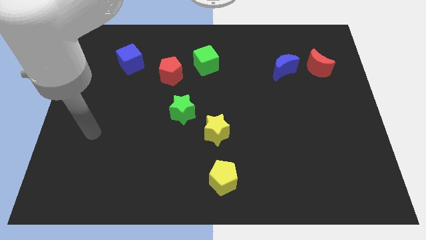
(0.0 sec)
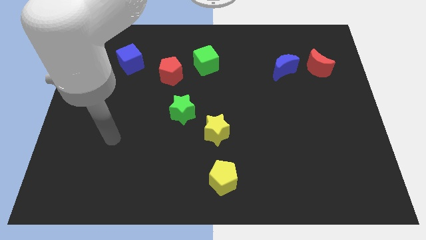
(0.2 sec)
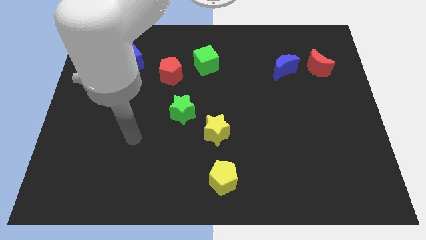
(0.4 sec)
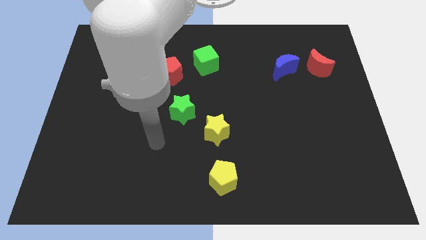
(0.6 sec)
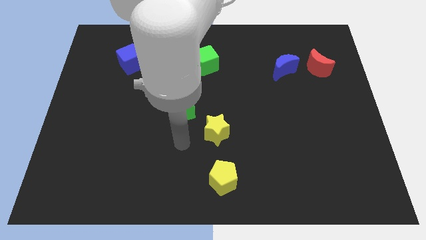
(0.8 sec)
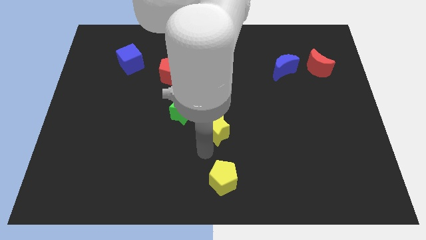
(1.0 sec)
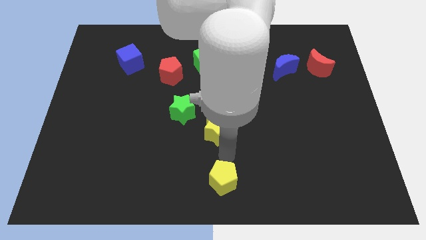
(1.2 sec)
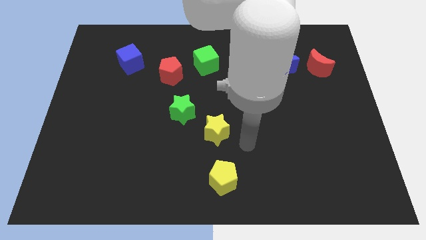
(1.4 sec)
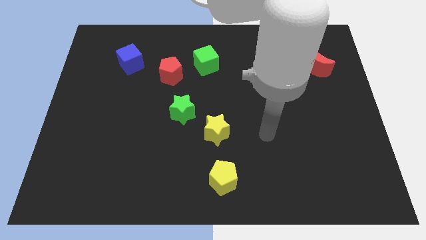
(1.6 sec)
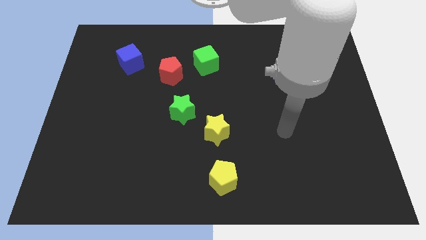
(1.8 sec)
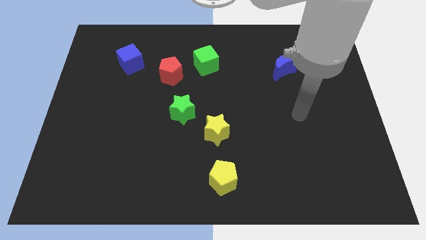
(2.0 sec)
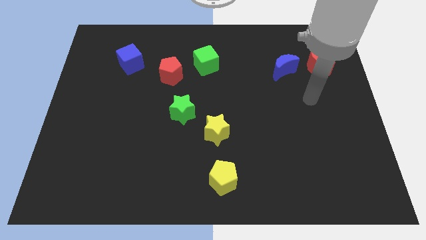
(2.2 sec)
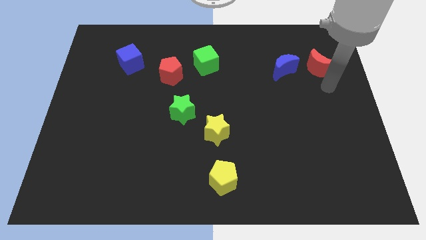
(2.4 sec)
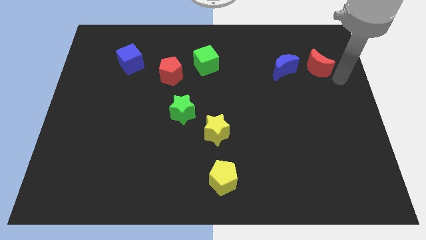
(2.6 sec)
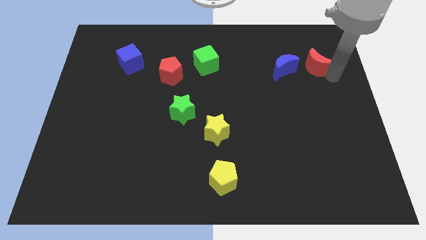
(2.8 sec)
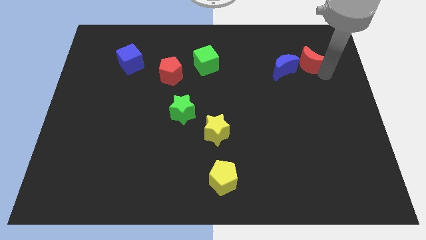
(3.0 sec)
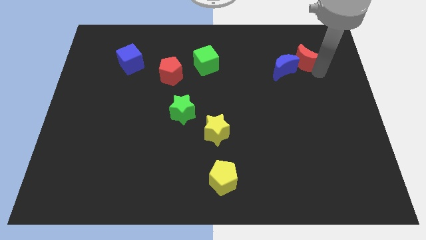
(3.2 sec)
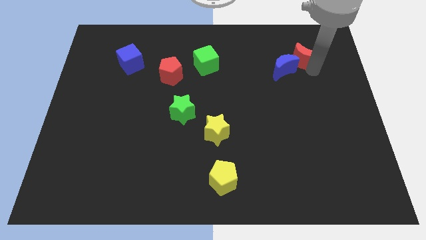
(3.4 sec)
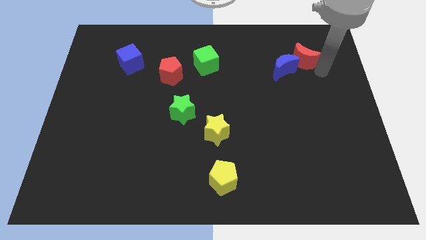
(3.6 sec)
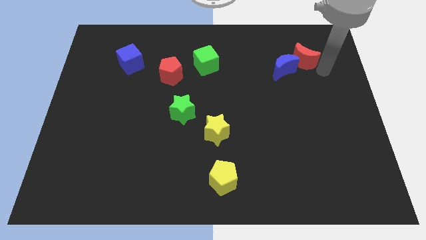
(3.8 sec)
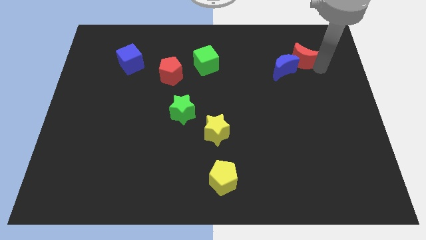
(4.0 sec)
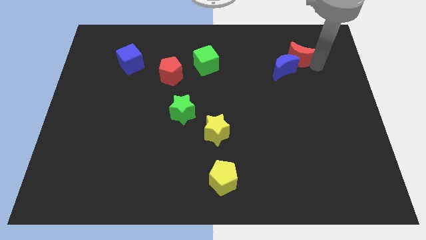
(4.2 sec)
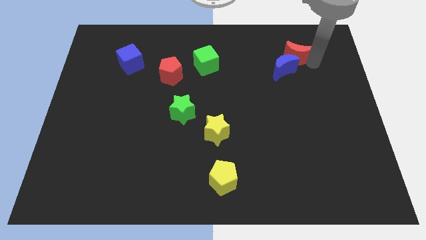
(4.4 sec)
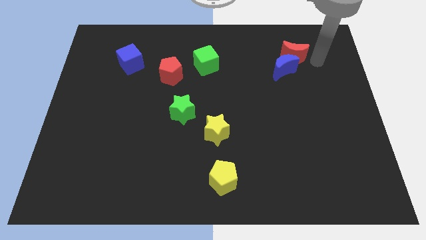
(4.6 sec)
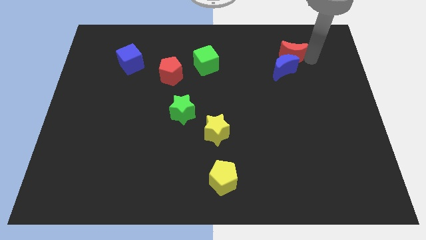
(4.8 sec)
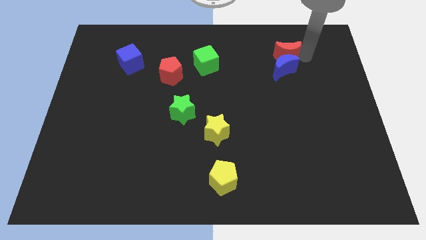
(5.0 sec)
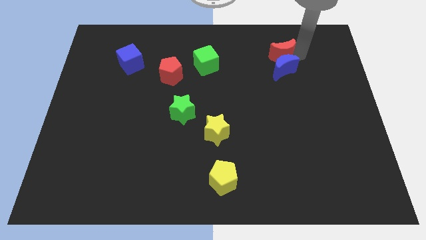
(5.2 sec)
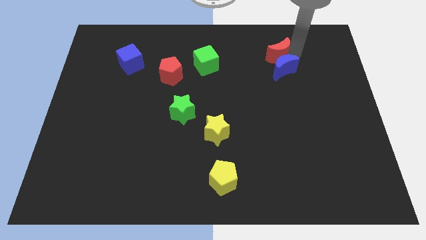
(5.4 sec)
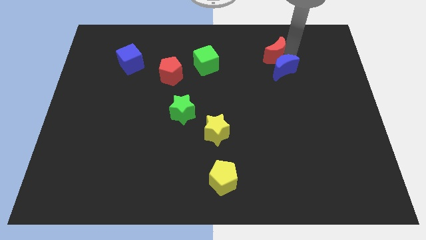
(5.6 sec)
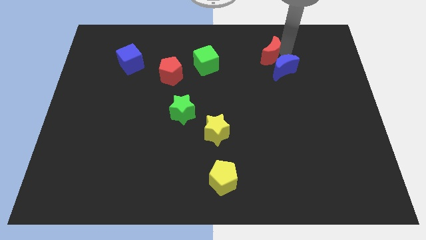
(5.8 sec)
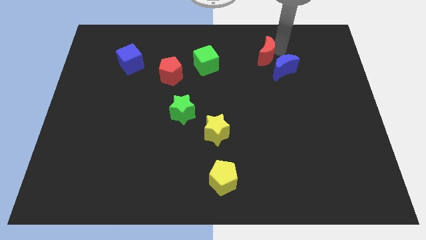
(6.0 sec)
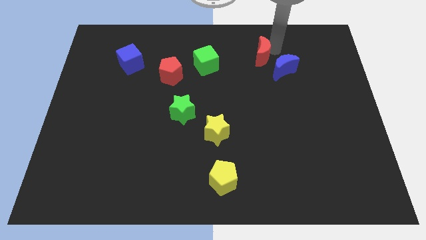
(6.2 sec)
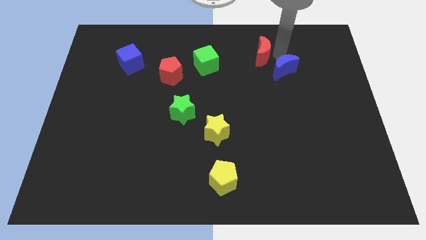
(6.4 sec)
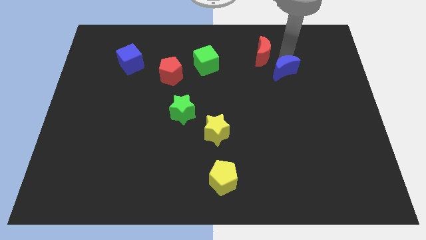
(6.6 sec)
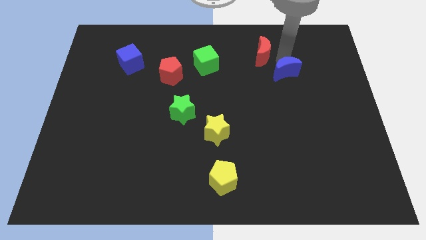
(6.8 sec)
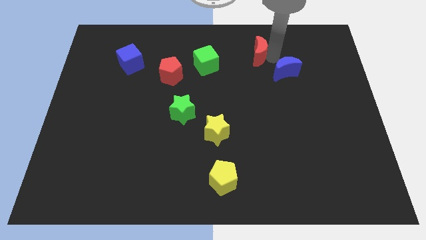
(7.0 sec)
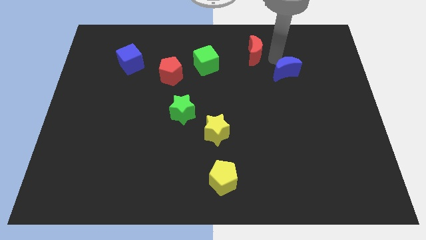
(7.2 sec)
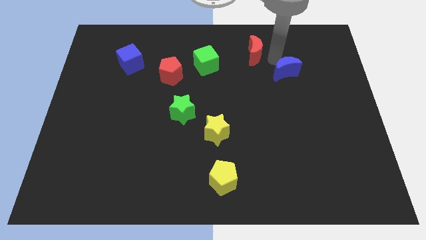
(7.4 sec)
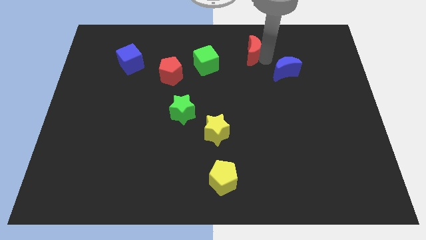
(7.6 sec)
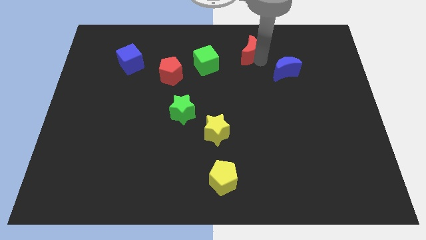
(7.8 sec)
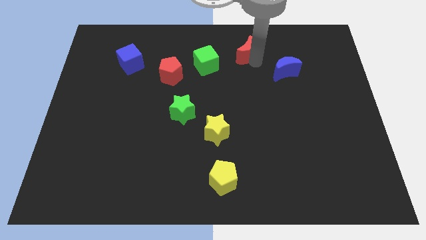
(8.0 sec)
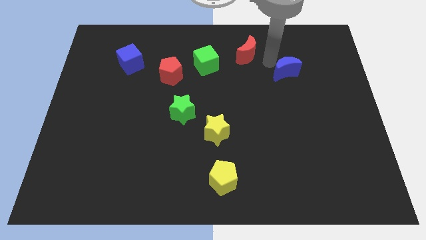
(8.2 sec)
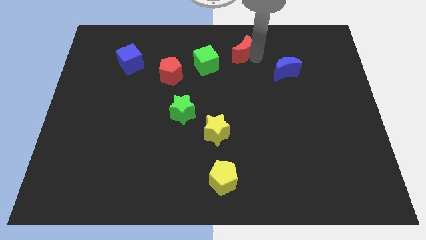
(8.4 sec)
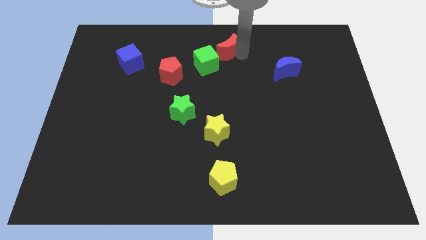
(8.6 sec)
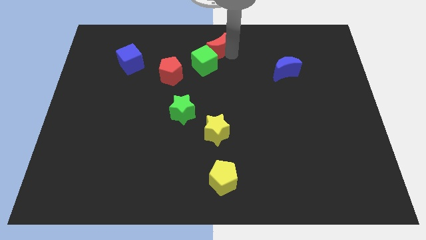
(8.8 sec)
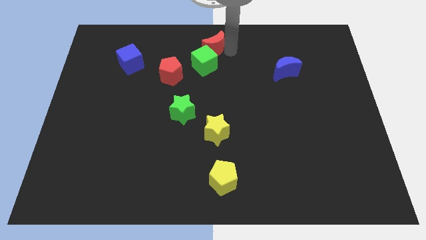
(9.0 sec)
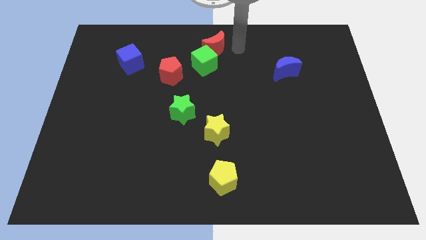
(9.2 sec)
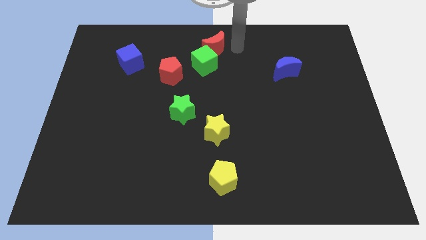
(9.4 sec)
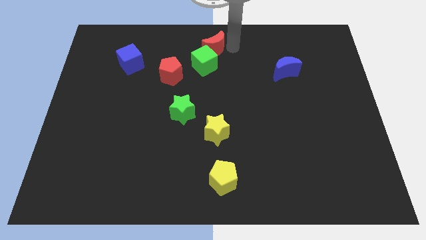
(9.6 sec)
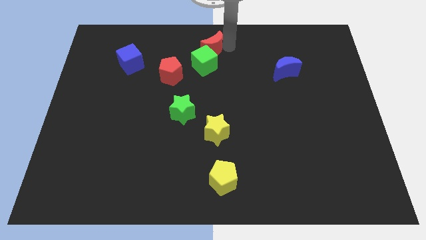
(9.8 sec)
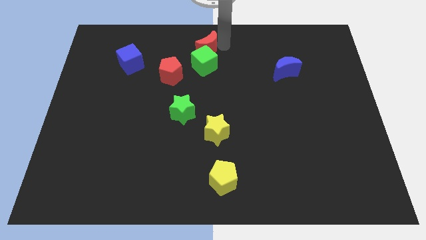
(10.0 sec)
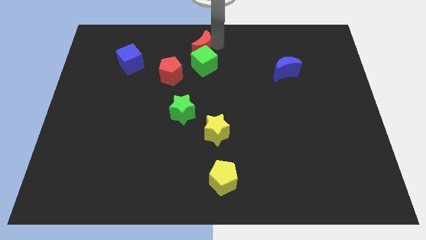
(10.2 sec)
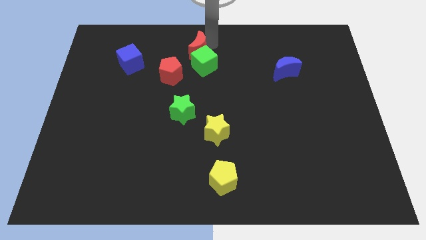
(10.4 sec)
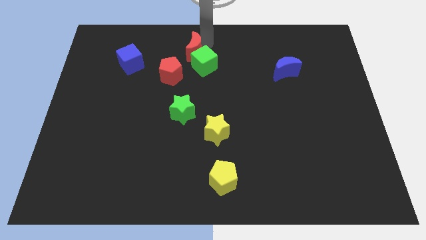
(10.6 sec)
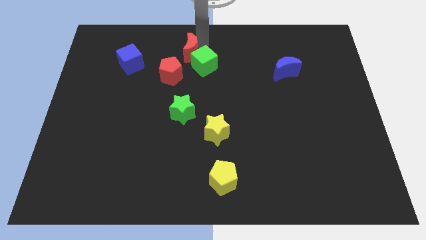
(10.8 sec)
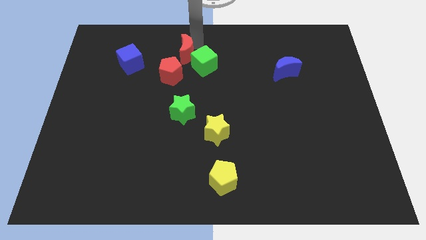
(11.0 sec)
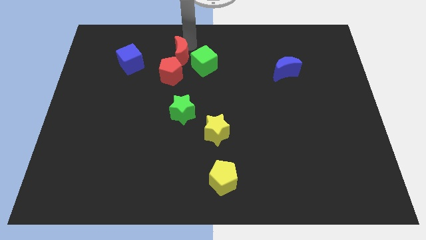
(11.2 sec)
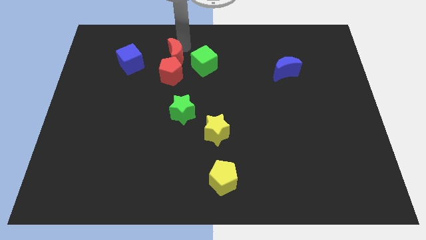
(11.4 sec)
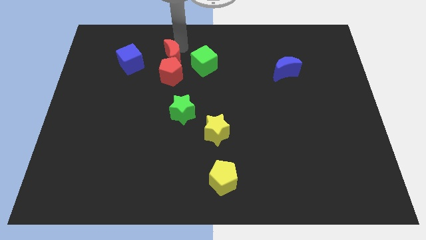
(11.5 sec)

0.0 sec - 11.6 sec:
push the red moon to the top left side of the red pentagon

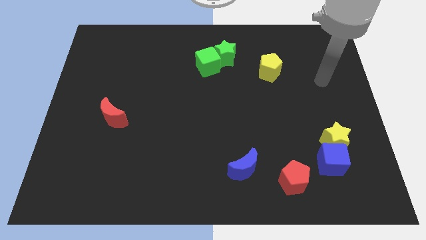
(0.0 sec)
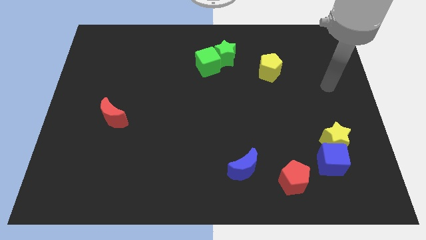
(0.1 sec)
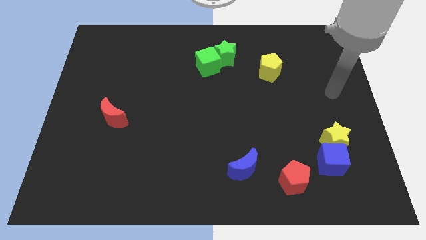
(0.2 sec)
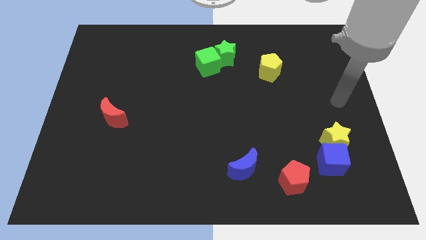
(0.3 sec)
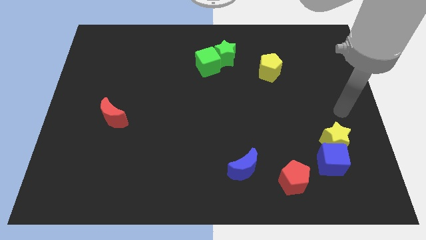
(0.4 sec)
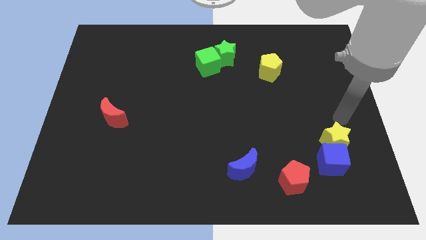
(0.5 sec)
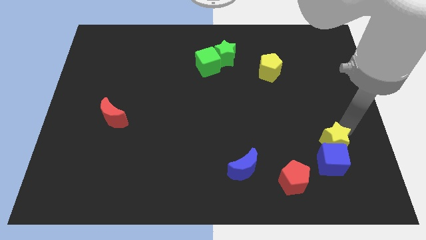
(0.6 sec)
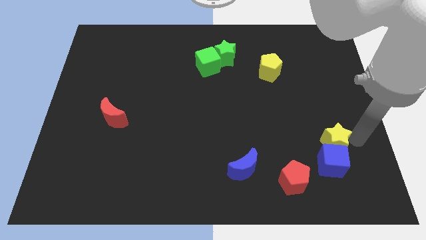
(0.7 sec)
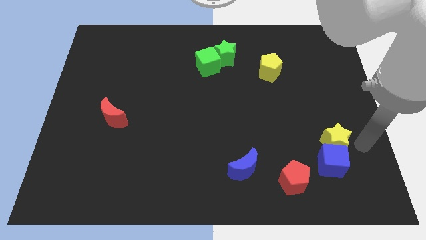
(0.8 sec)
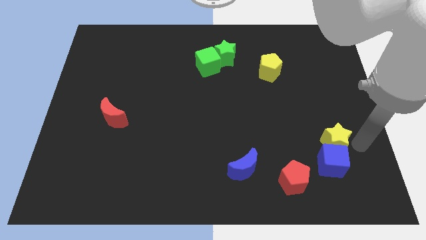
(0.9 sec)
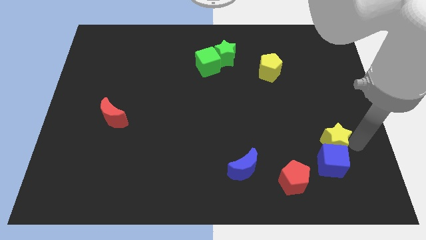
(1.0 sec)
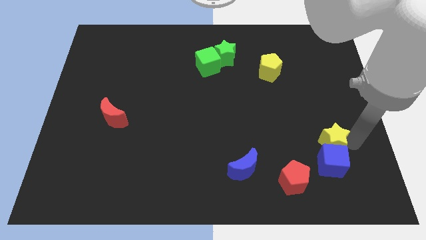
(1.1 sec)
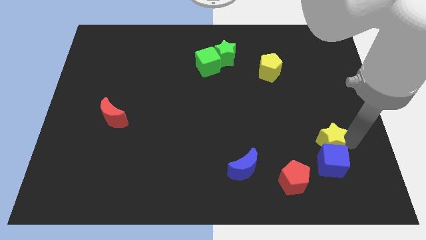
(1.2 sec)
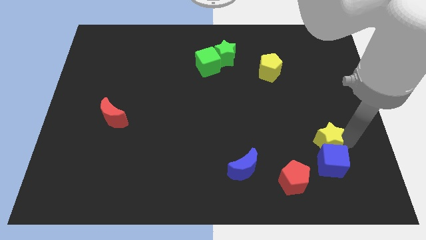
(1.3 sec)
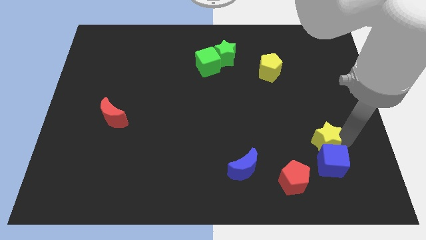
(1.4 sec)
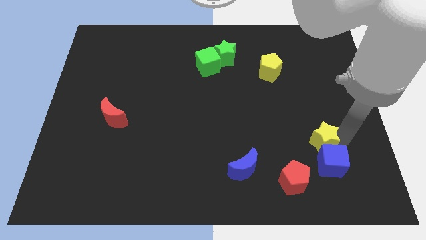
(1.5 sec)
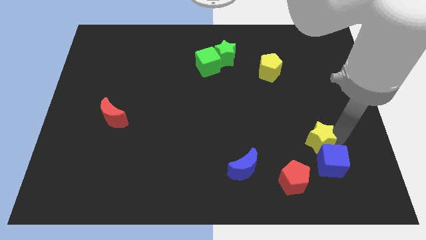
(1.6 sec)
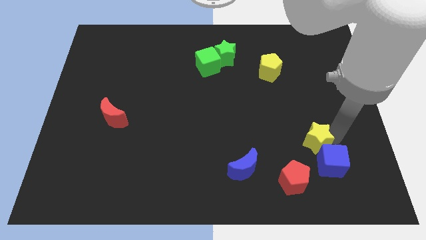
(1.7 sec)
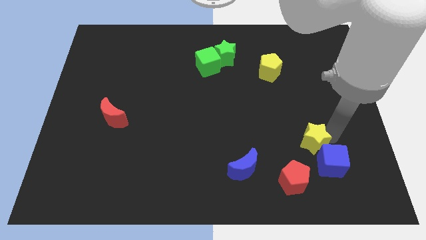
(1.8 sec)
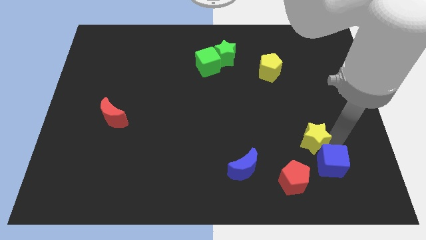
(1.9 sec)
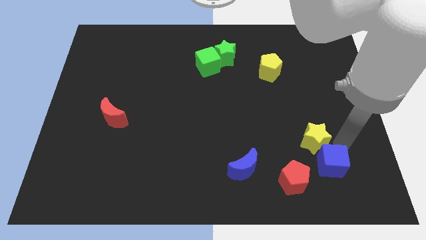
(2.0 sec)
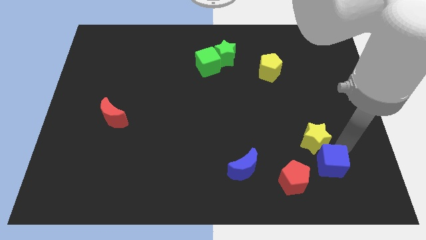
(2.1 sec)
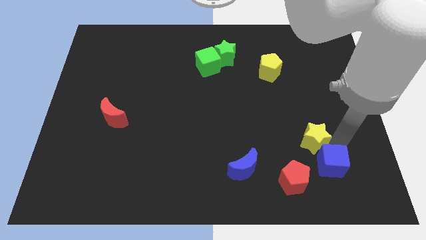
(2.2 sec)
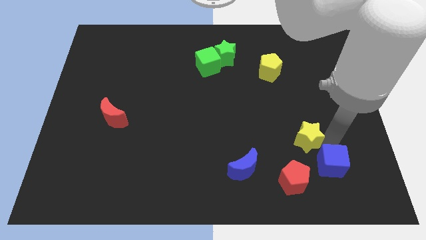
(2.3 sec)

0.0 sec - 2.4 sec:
slide the yellow star to the top side of the red pentagon
